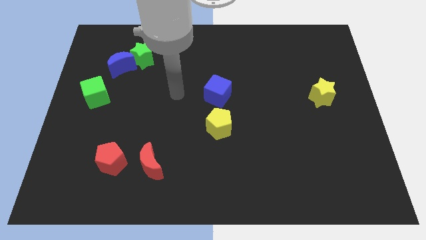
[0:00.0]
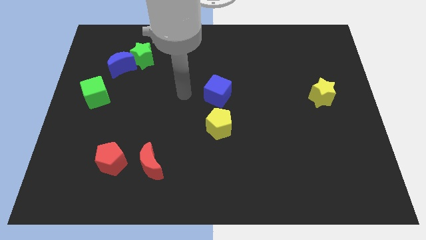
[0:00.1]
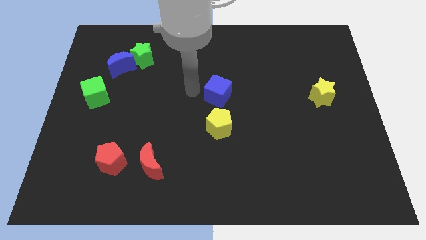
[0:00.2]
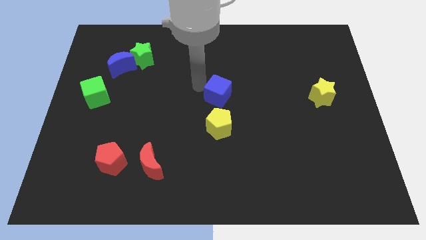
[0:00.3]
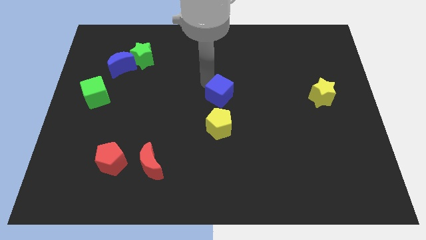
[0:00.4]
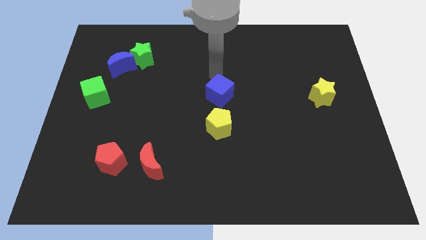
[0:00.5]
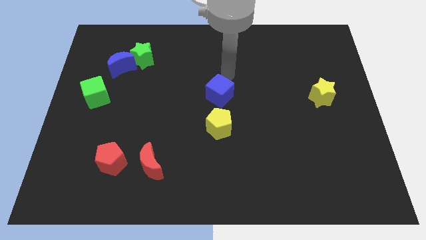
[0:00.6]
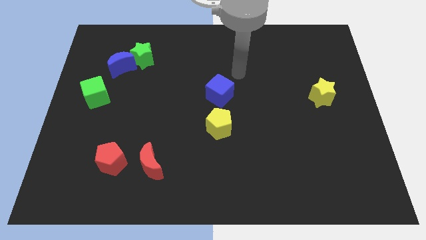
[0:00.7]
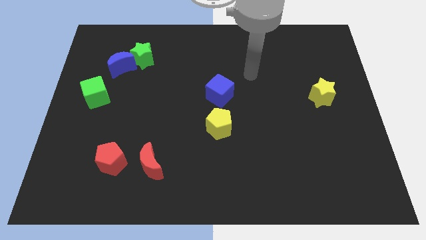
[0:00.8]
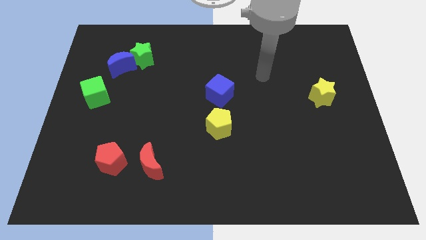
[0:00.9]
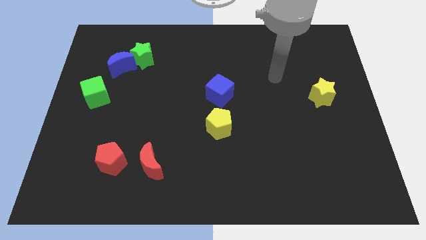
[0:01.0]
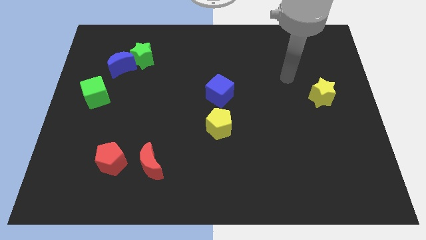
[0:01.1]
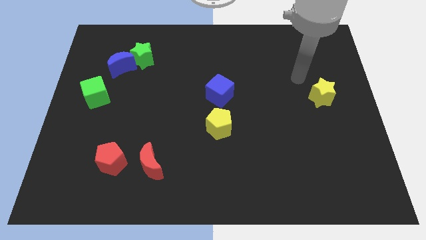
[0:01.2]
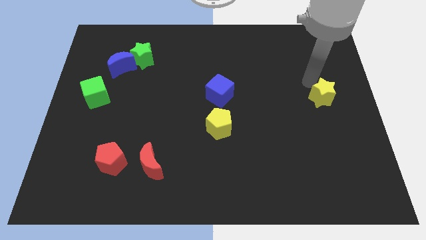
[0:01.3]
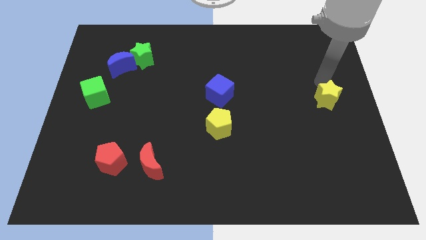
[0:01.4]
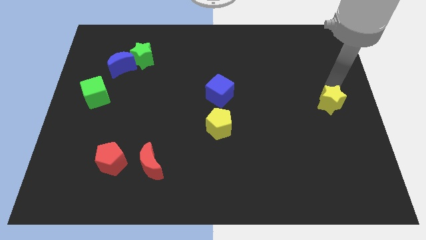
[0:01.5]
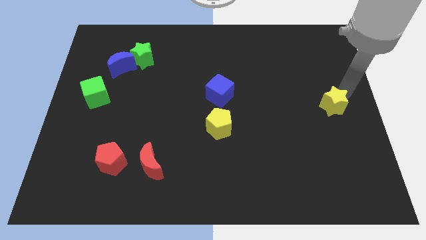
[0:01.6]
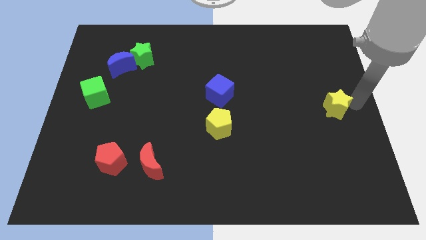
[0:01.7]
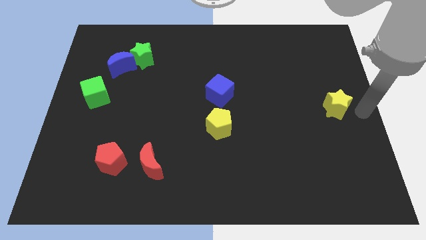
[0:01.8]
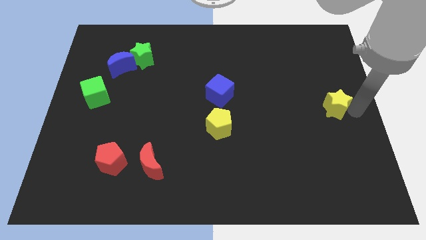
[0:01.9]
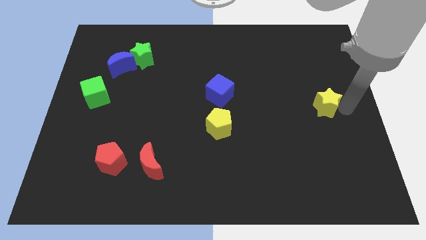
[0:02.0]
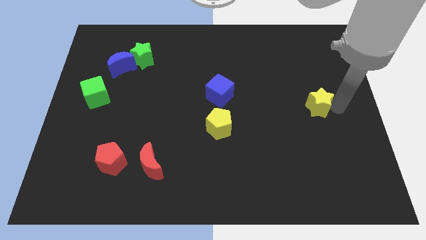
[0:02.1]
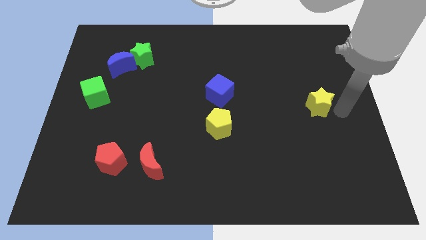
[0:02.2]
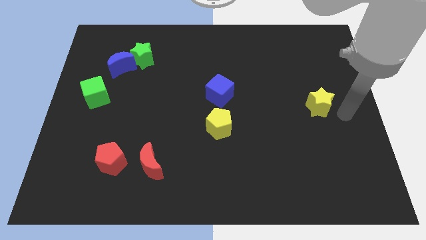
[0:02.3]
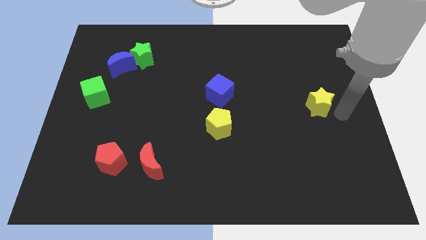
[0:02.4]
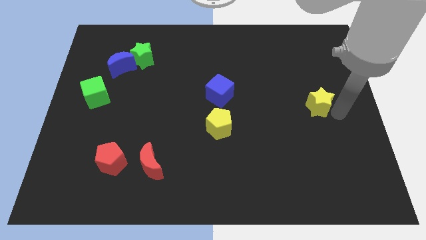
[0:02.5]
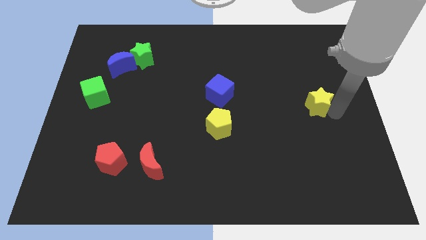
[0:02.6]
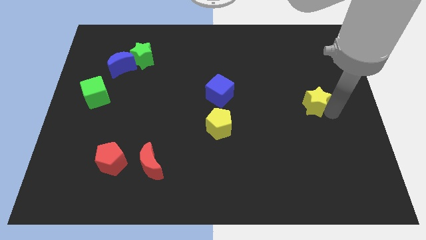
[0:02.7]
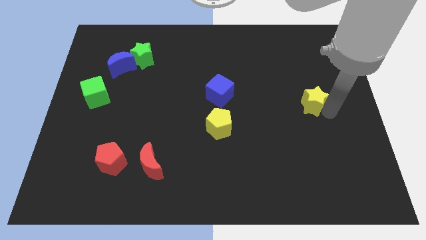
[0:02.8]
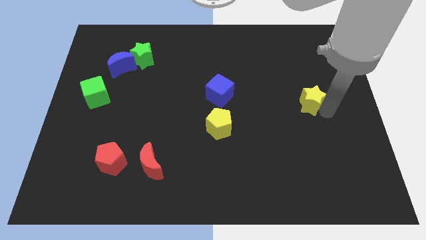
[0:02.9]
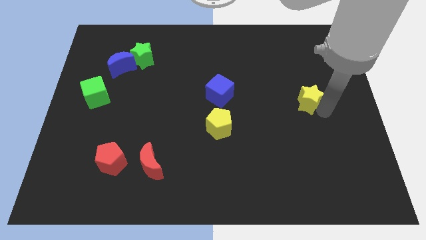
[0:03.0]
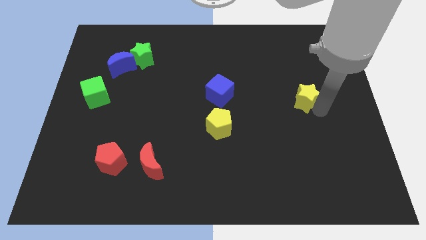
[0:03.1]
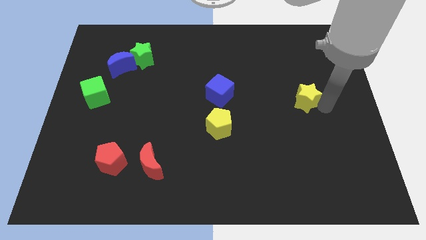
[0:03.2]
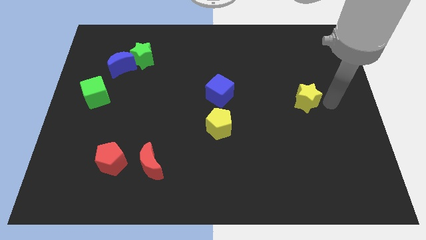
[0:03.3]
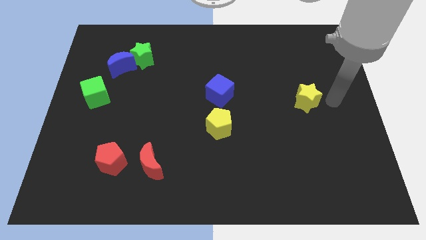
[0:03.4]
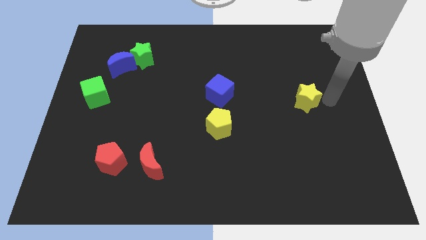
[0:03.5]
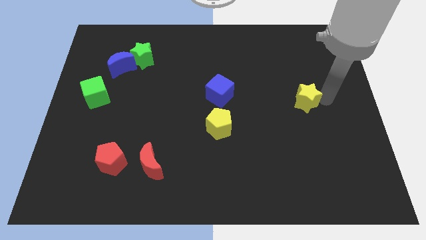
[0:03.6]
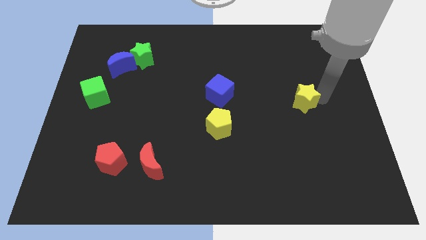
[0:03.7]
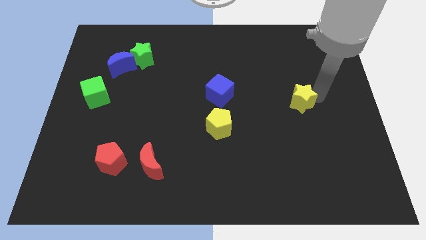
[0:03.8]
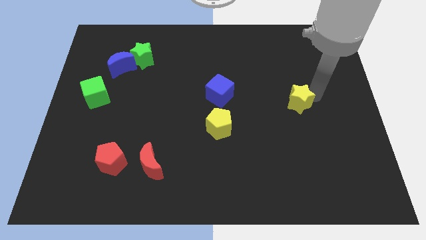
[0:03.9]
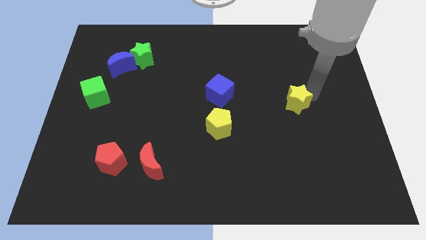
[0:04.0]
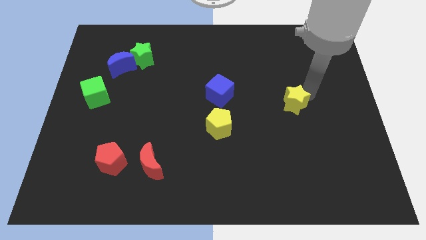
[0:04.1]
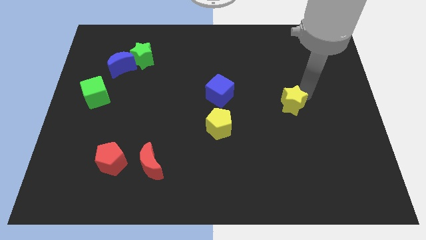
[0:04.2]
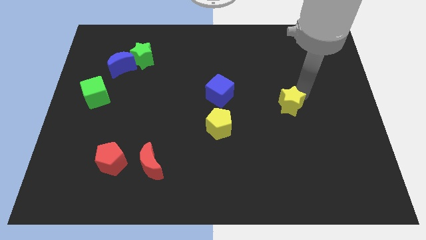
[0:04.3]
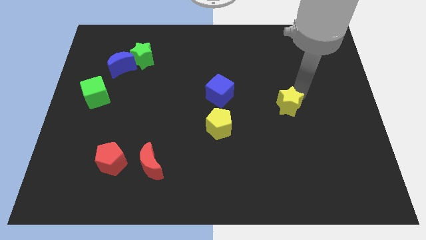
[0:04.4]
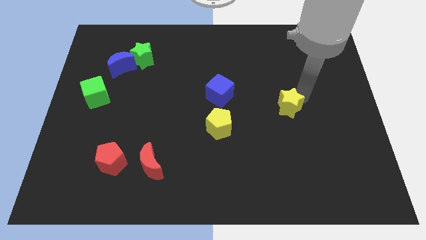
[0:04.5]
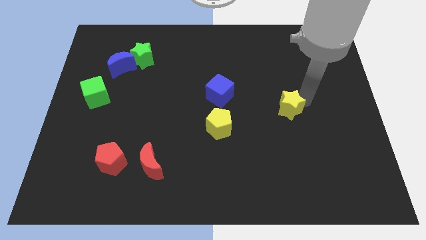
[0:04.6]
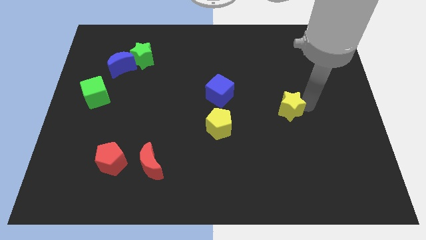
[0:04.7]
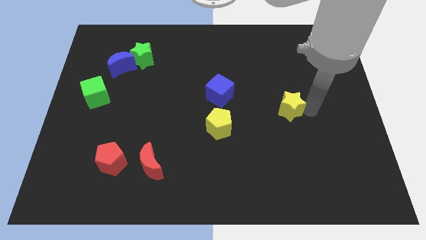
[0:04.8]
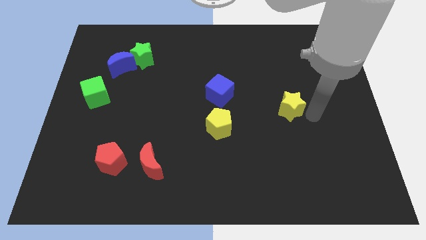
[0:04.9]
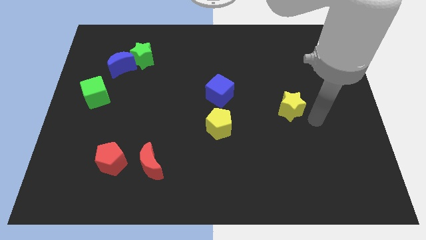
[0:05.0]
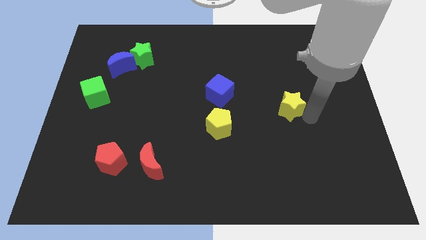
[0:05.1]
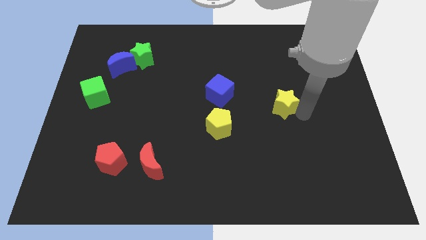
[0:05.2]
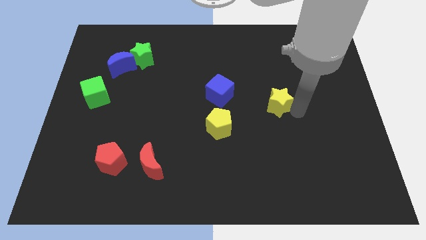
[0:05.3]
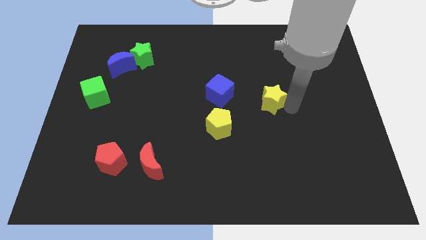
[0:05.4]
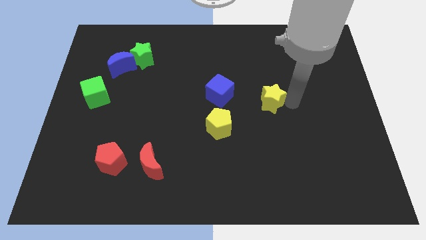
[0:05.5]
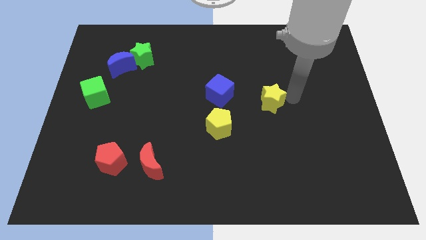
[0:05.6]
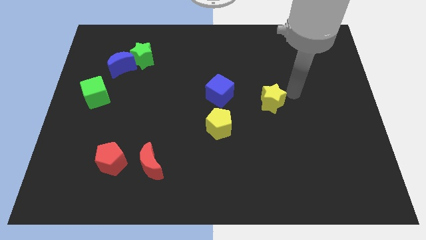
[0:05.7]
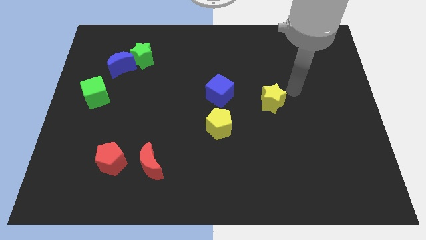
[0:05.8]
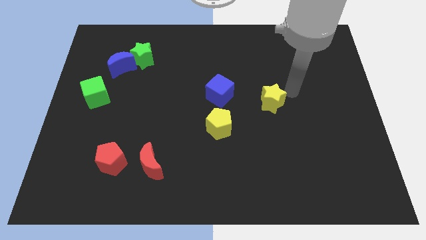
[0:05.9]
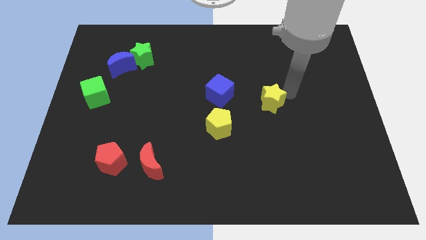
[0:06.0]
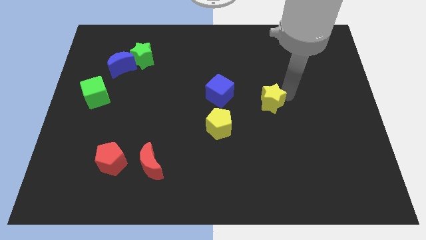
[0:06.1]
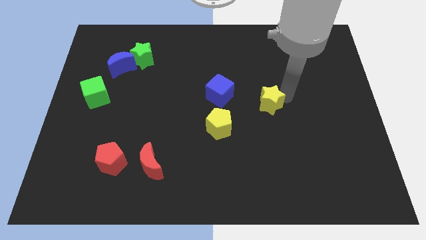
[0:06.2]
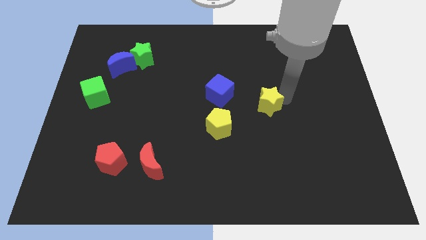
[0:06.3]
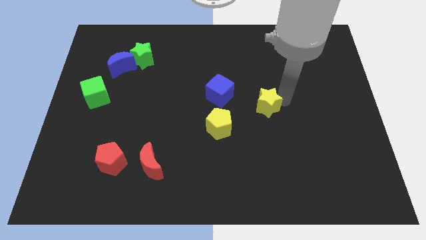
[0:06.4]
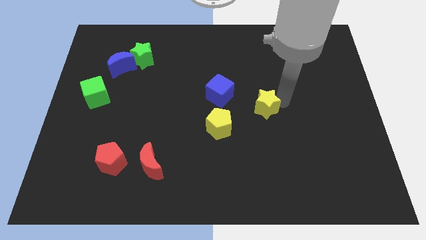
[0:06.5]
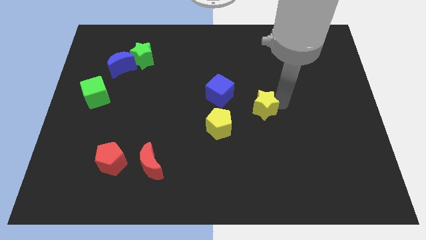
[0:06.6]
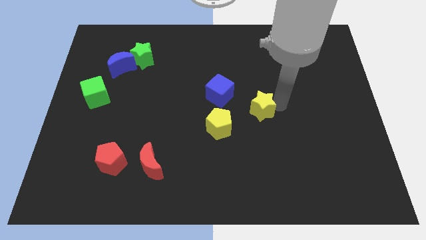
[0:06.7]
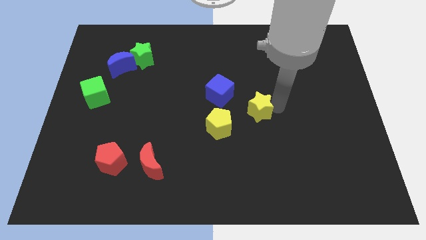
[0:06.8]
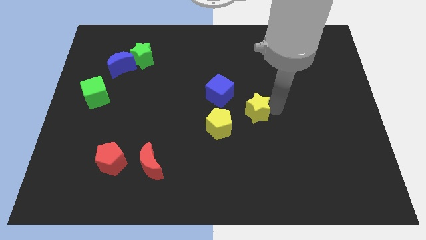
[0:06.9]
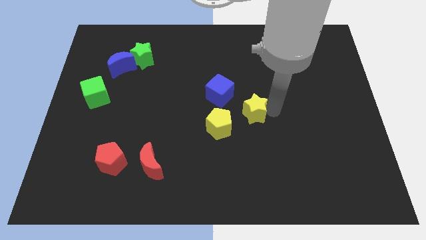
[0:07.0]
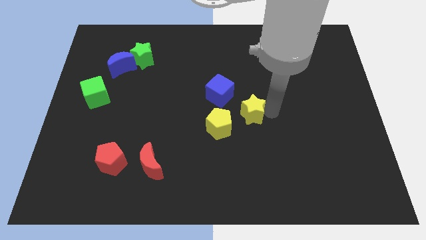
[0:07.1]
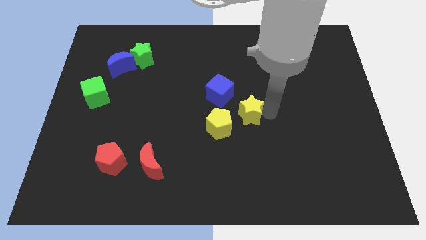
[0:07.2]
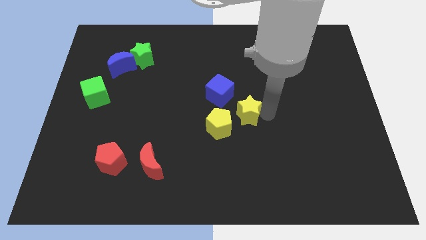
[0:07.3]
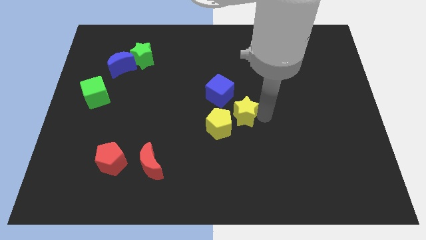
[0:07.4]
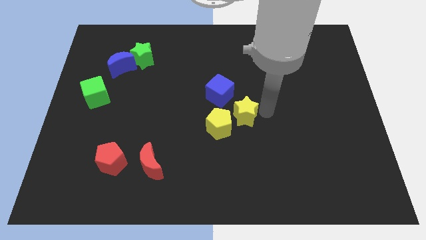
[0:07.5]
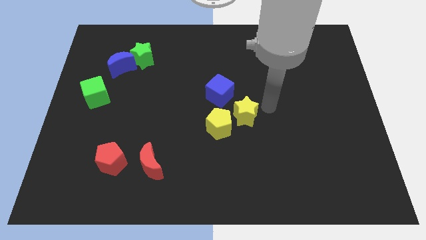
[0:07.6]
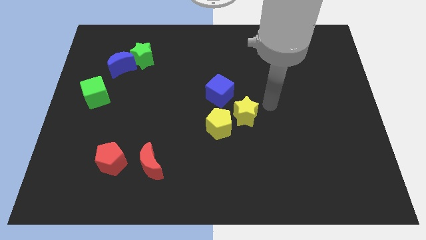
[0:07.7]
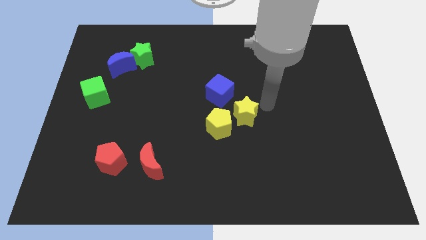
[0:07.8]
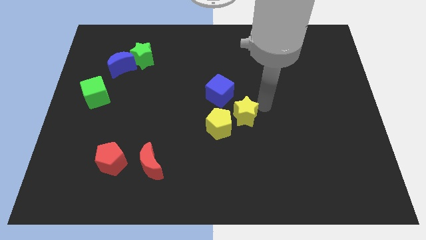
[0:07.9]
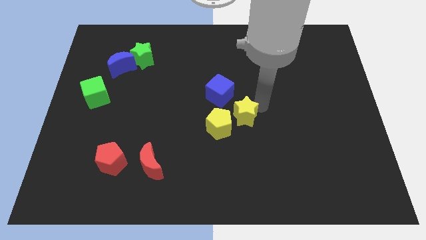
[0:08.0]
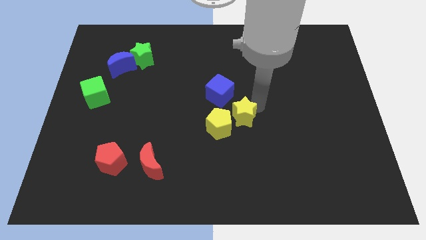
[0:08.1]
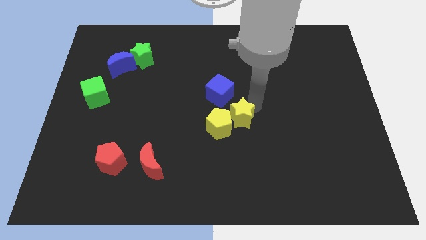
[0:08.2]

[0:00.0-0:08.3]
put the yellow star towards the yellow pentagon
